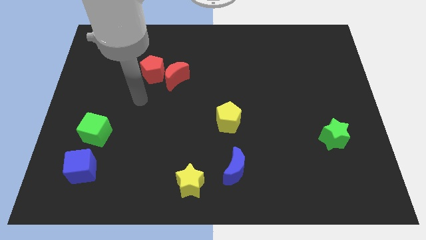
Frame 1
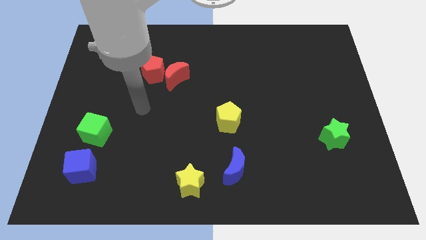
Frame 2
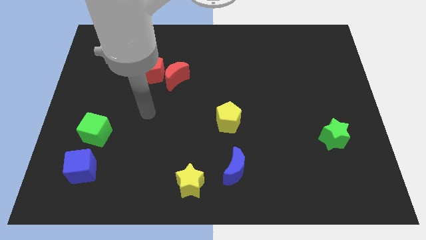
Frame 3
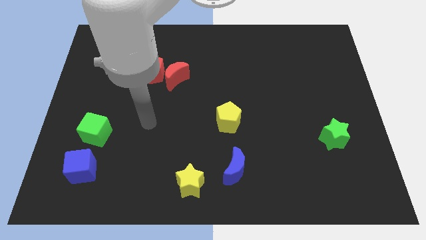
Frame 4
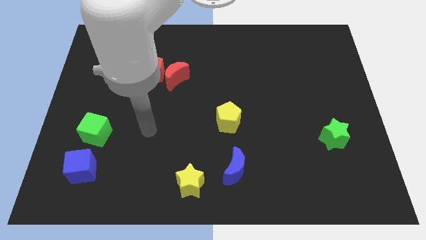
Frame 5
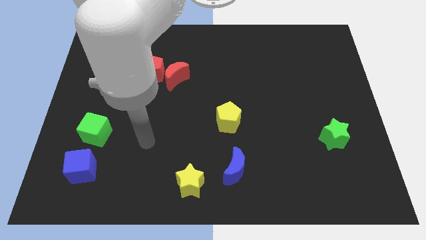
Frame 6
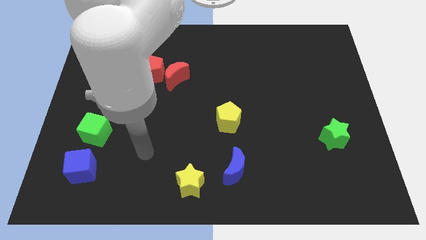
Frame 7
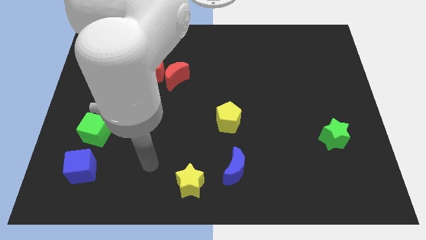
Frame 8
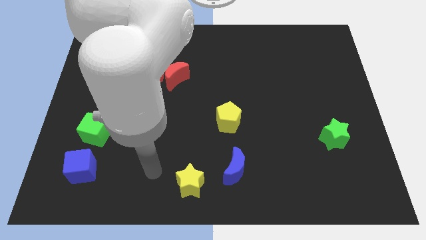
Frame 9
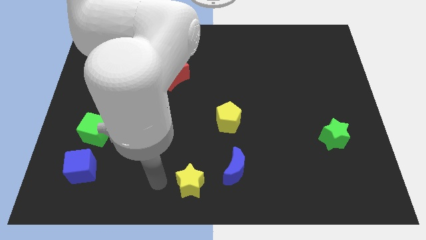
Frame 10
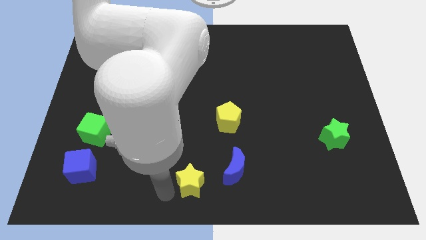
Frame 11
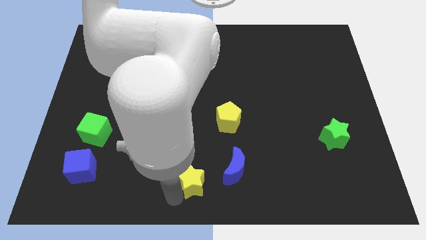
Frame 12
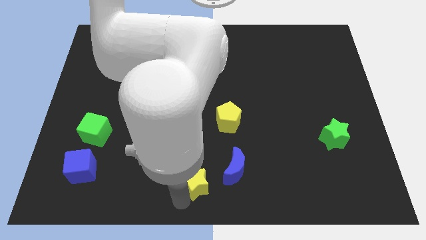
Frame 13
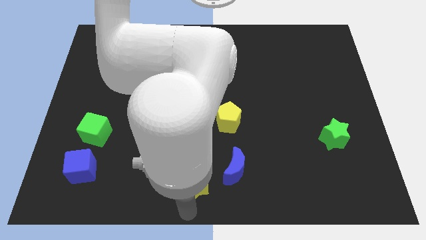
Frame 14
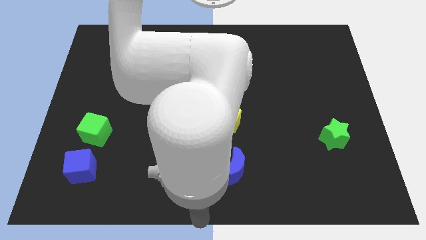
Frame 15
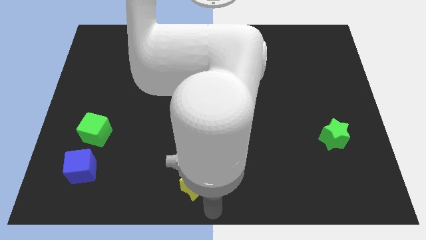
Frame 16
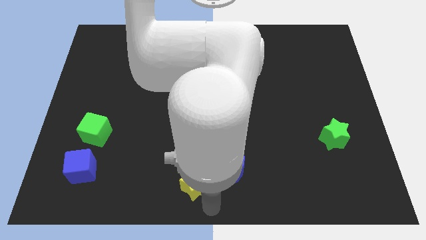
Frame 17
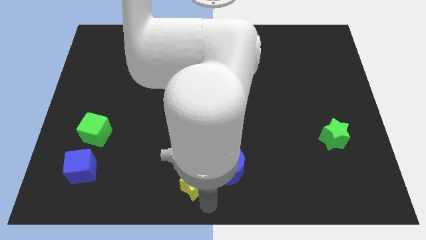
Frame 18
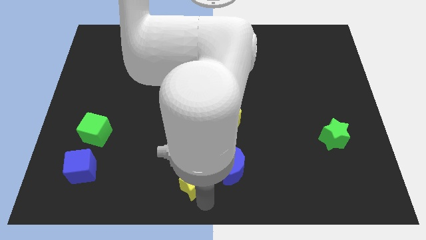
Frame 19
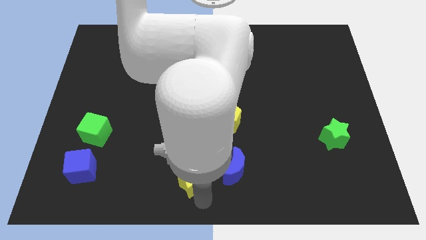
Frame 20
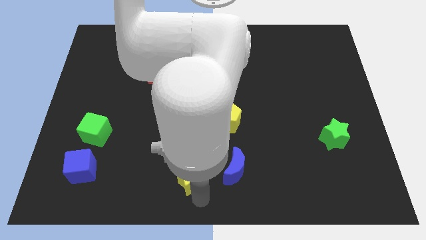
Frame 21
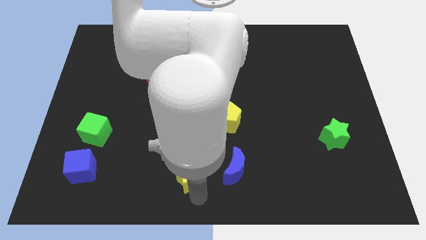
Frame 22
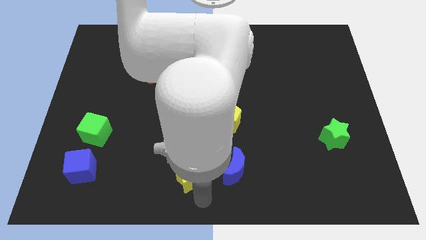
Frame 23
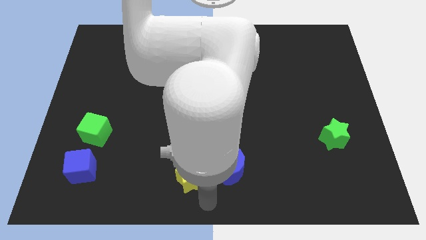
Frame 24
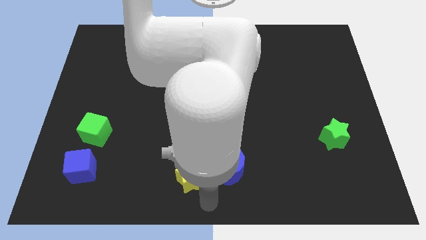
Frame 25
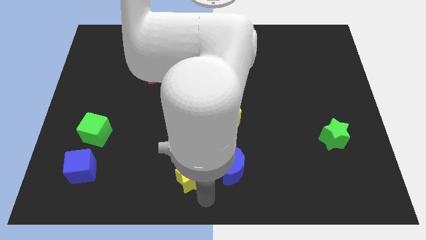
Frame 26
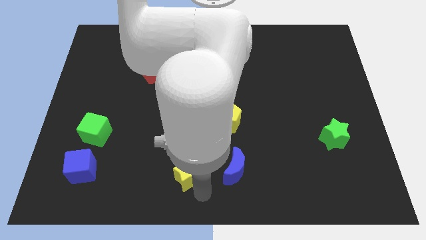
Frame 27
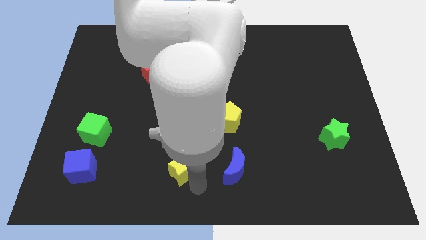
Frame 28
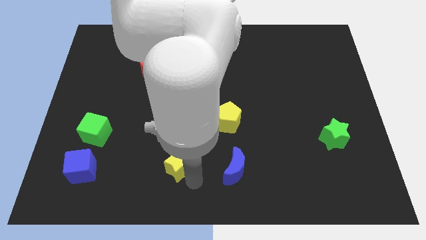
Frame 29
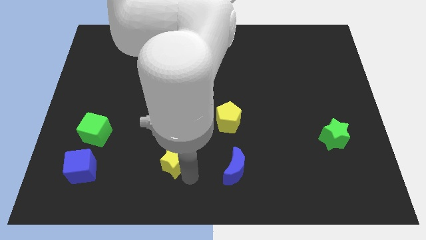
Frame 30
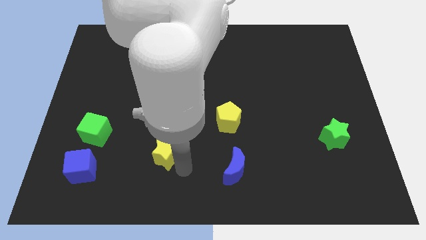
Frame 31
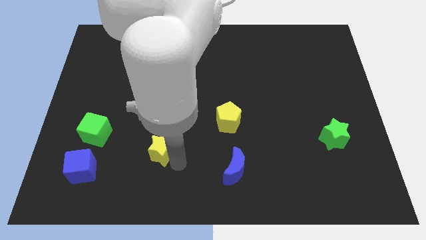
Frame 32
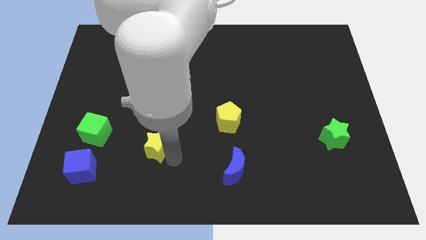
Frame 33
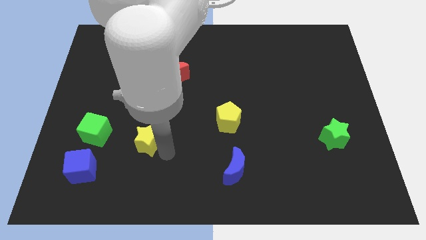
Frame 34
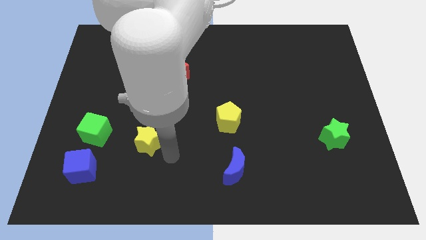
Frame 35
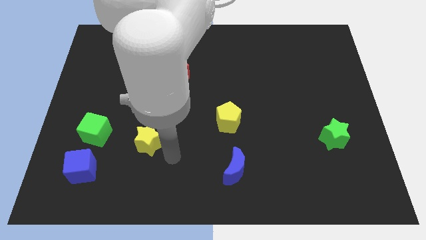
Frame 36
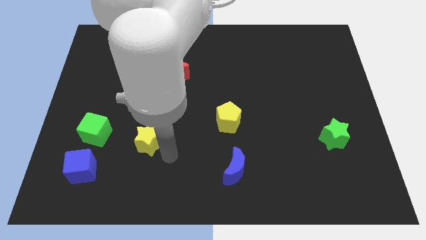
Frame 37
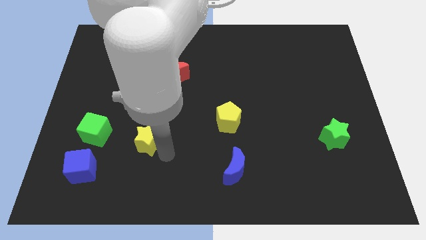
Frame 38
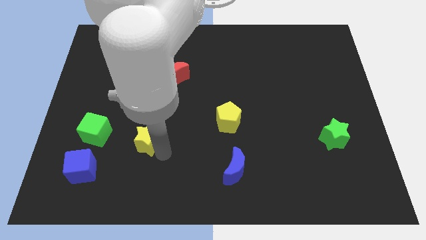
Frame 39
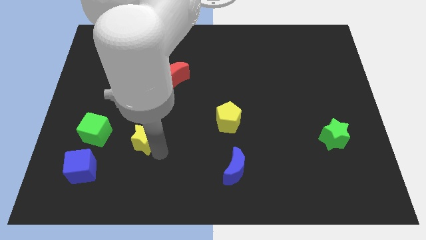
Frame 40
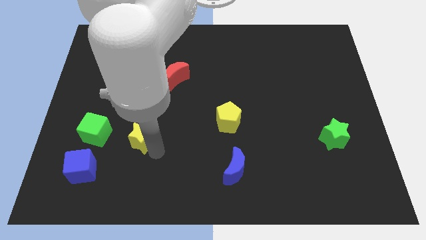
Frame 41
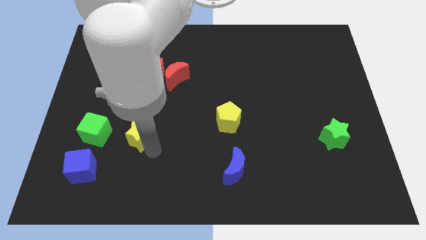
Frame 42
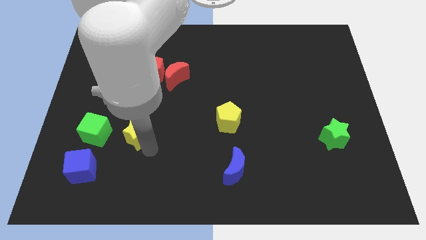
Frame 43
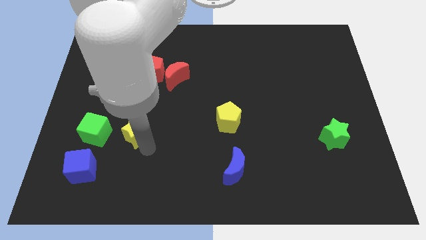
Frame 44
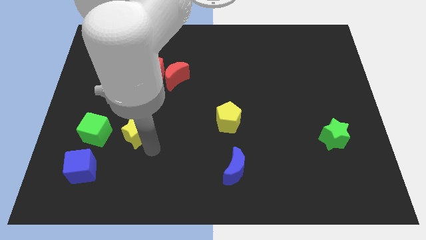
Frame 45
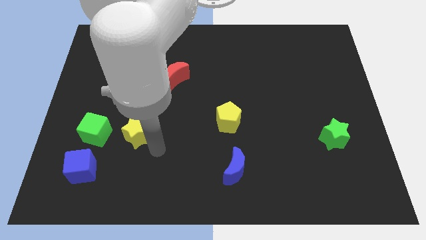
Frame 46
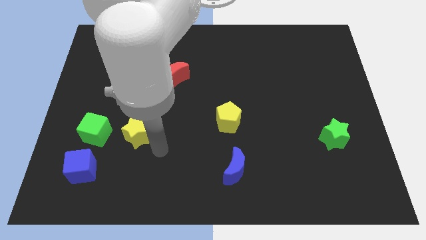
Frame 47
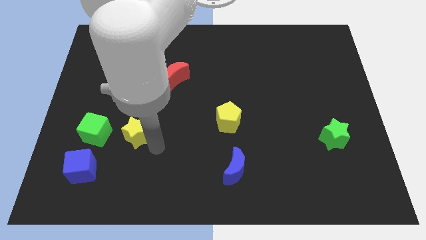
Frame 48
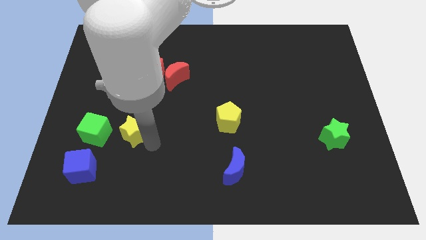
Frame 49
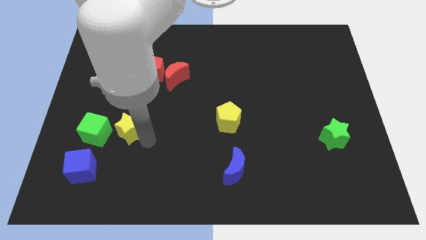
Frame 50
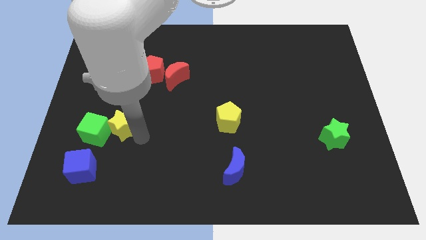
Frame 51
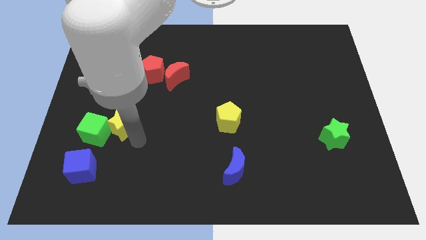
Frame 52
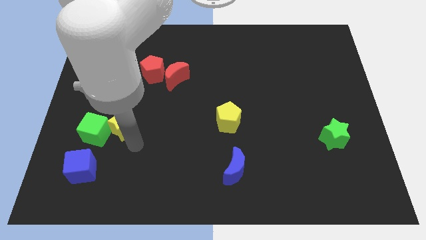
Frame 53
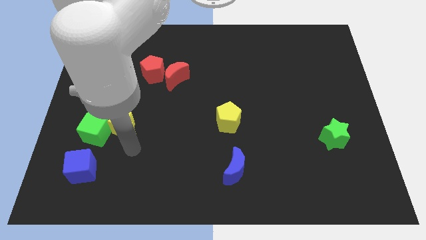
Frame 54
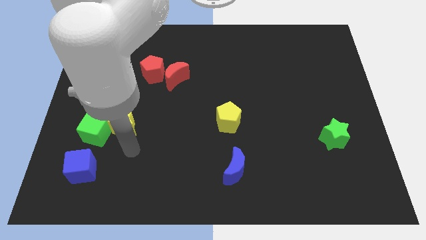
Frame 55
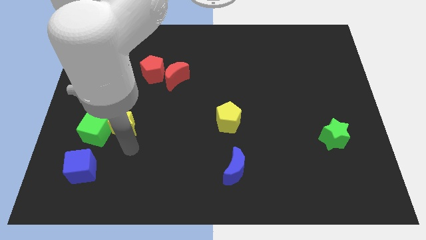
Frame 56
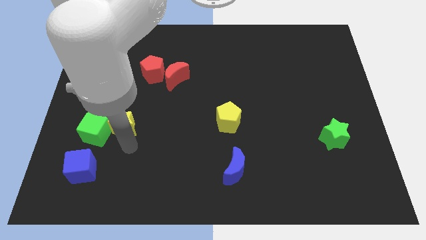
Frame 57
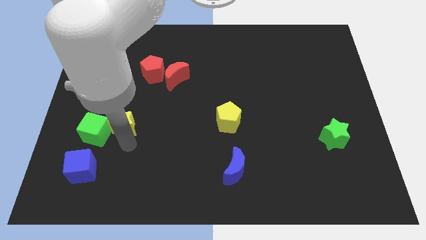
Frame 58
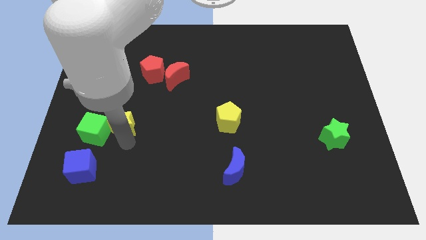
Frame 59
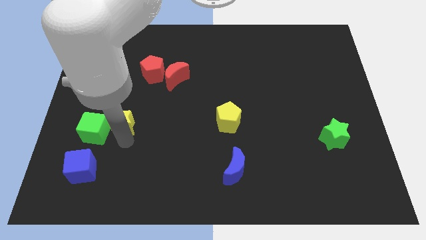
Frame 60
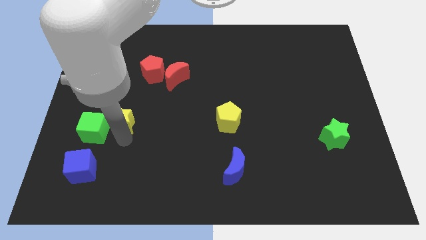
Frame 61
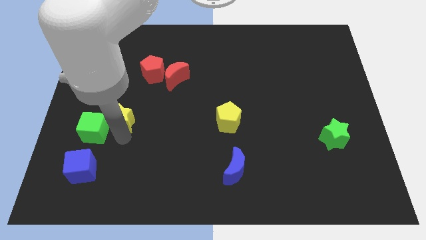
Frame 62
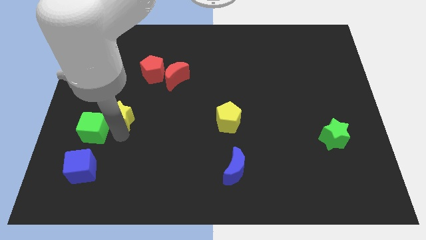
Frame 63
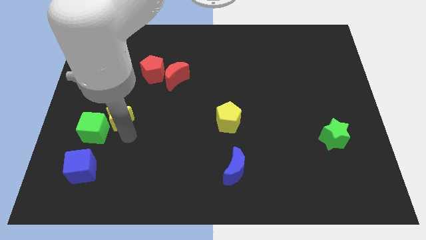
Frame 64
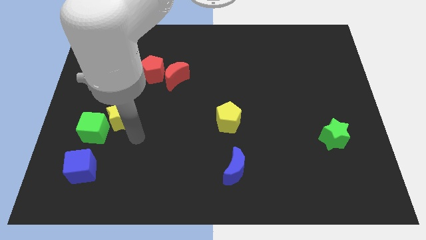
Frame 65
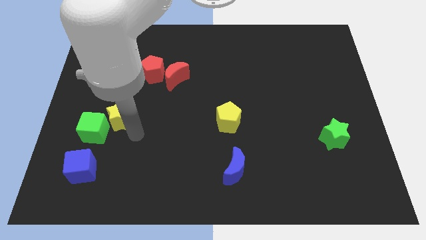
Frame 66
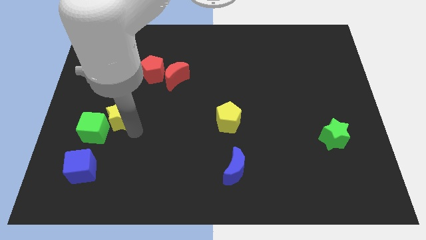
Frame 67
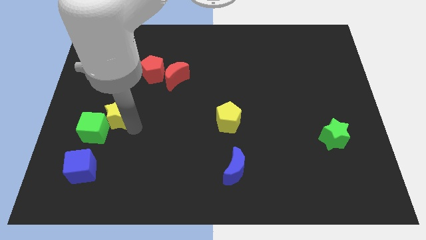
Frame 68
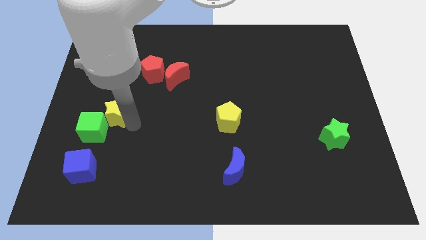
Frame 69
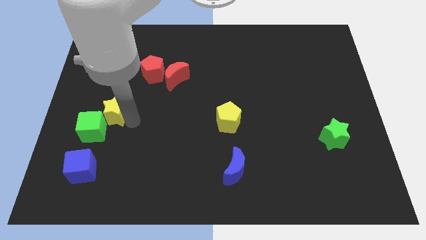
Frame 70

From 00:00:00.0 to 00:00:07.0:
slide the yellow star above the green cube
